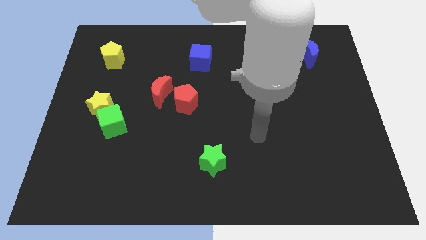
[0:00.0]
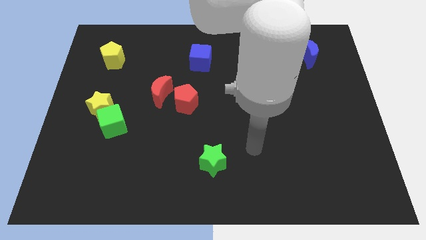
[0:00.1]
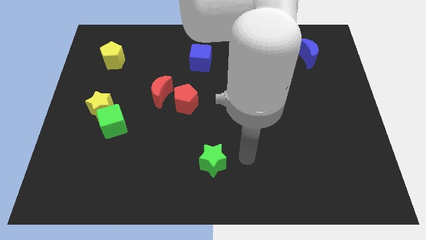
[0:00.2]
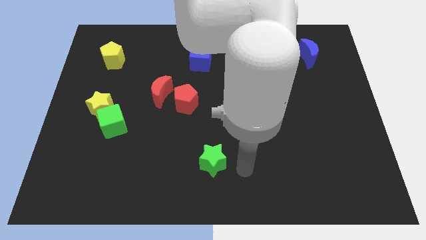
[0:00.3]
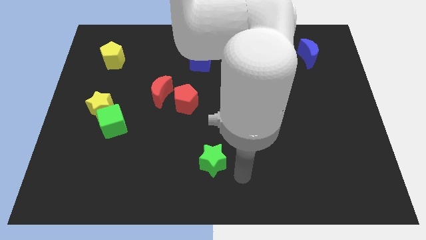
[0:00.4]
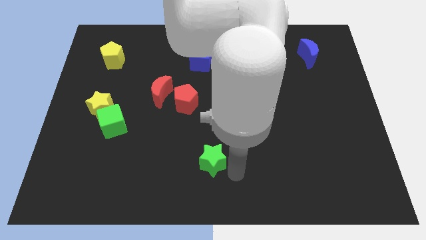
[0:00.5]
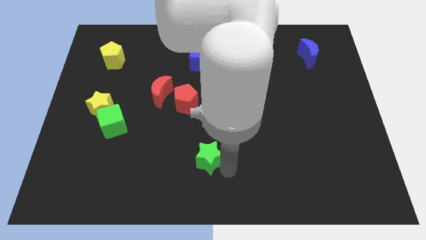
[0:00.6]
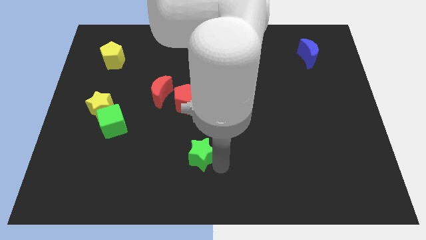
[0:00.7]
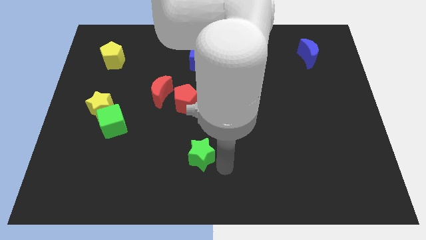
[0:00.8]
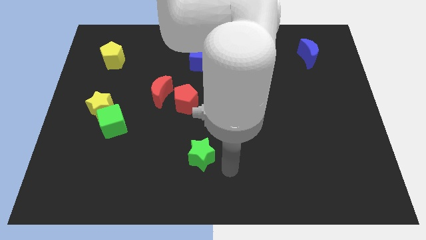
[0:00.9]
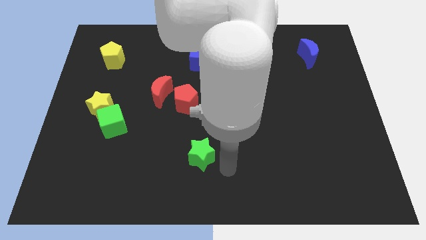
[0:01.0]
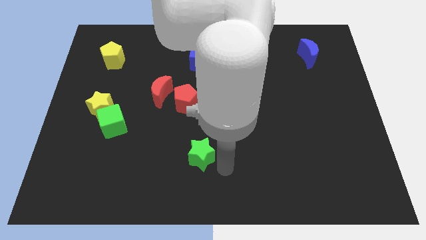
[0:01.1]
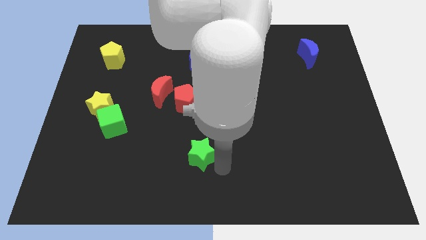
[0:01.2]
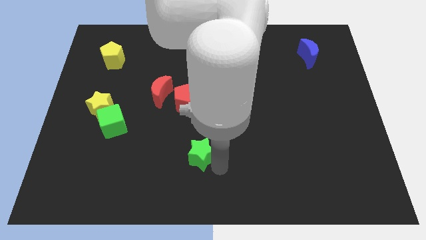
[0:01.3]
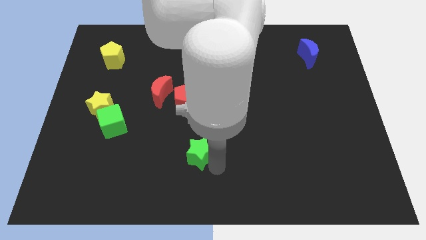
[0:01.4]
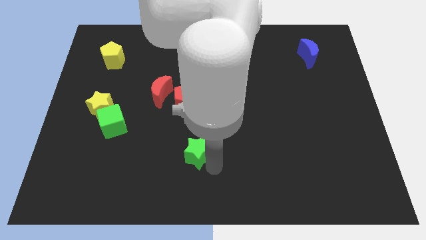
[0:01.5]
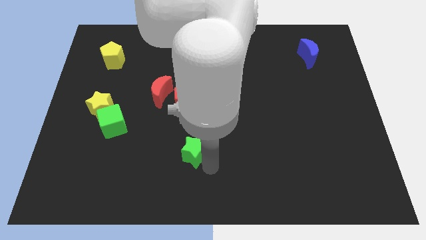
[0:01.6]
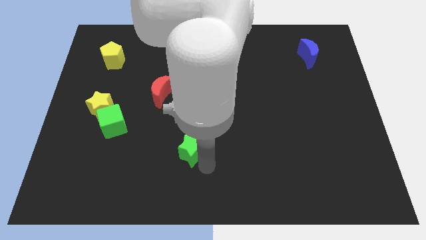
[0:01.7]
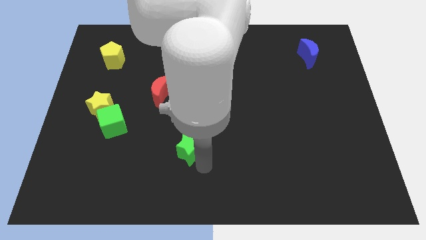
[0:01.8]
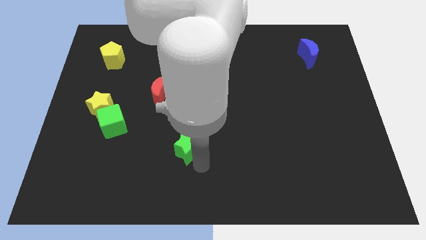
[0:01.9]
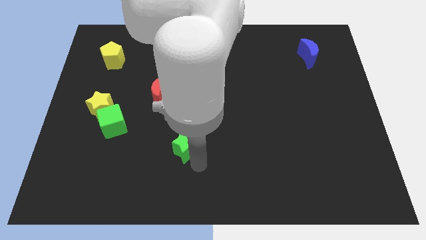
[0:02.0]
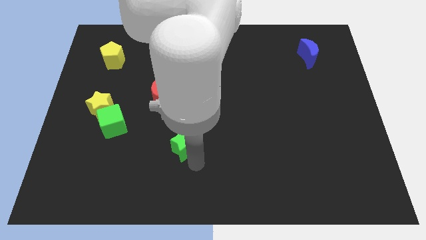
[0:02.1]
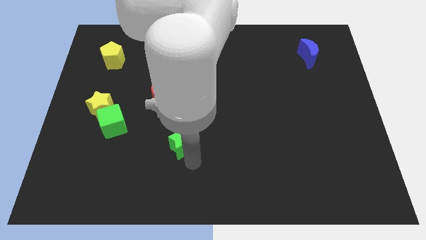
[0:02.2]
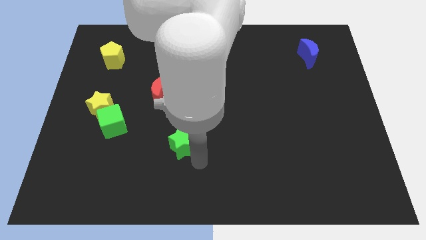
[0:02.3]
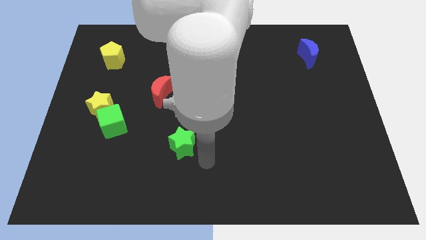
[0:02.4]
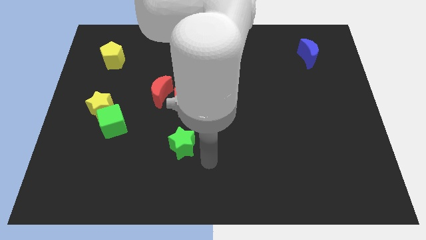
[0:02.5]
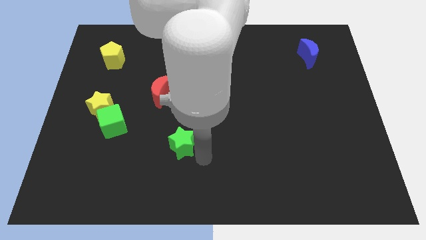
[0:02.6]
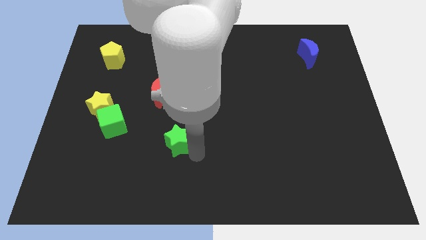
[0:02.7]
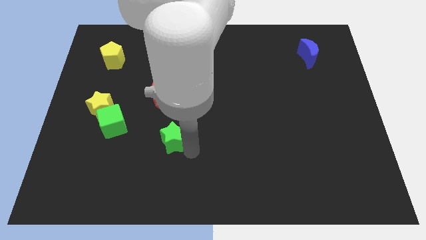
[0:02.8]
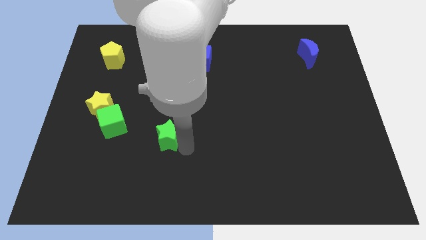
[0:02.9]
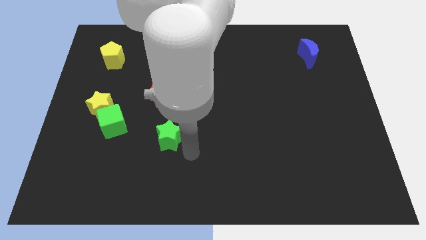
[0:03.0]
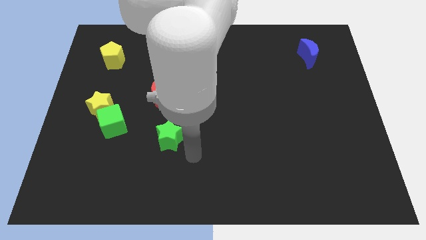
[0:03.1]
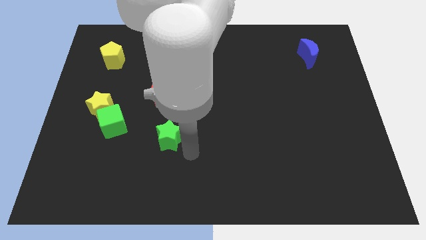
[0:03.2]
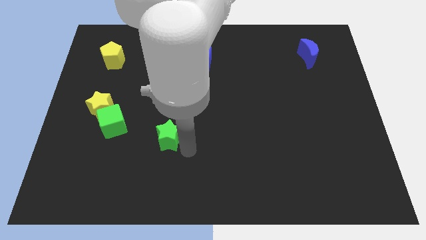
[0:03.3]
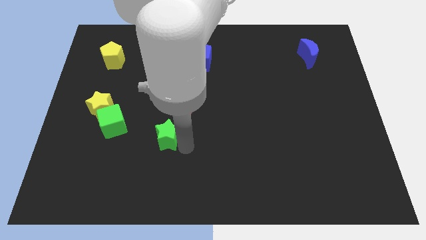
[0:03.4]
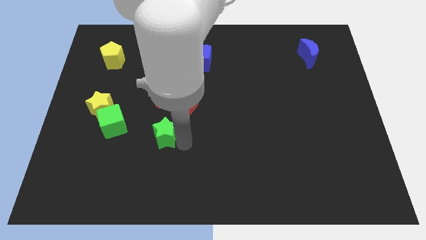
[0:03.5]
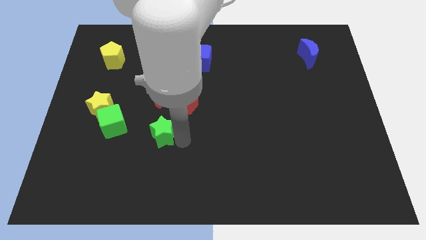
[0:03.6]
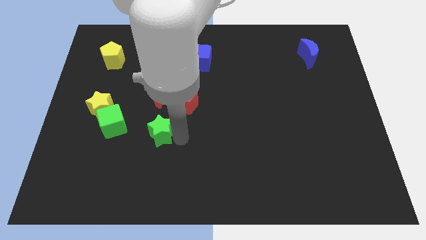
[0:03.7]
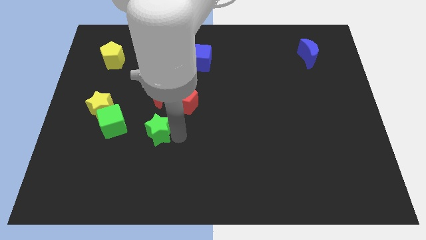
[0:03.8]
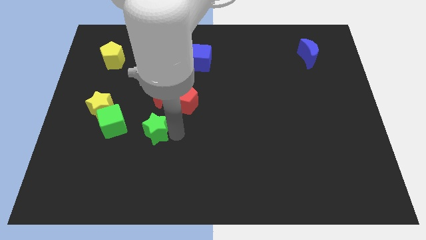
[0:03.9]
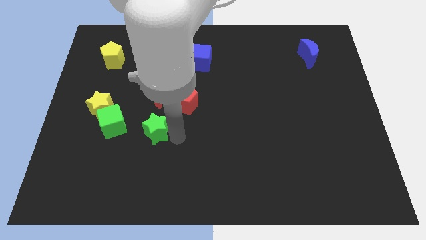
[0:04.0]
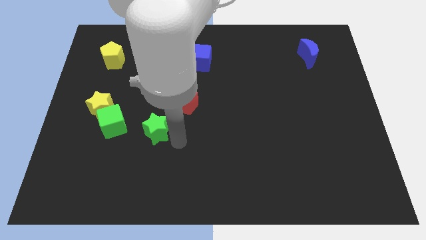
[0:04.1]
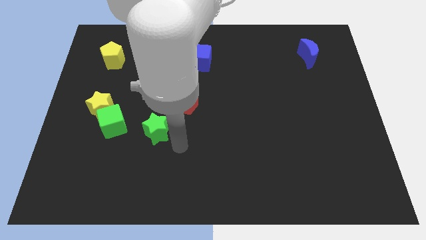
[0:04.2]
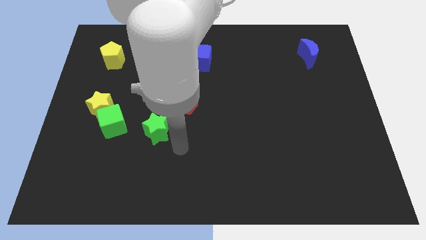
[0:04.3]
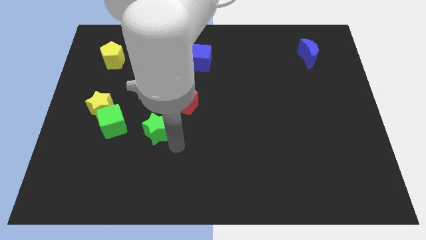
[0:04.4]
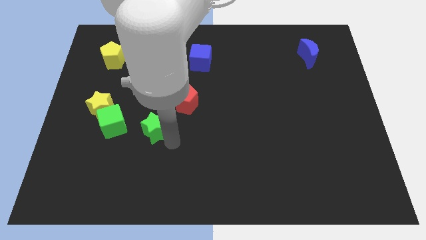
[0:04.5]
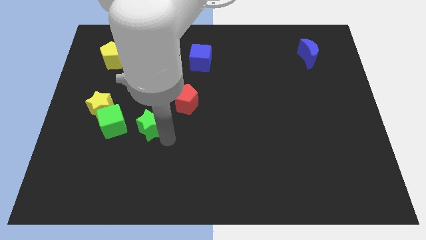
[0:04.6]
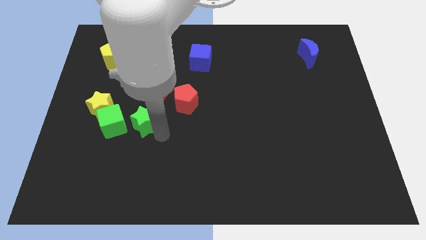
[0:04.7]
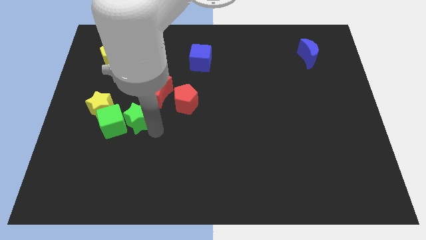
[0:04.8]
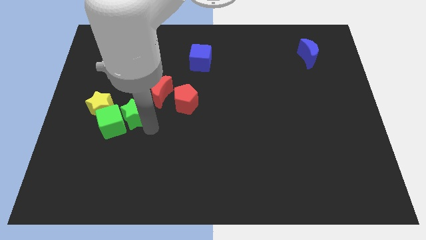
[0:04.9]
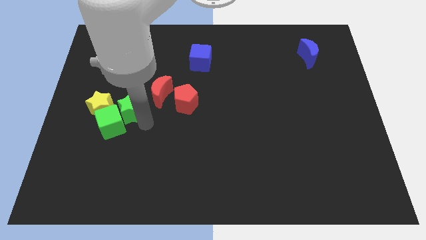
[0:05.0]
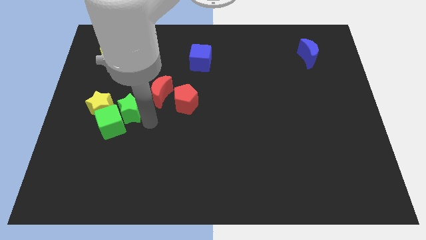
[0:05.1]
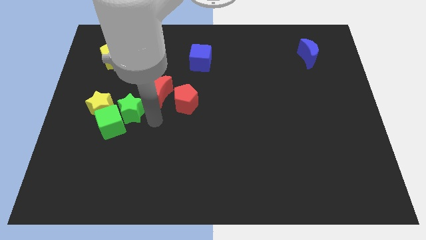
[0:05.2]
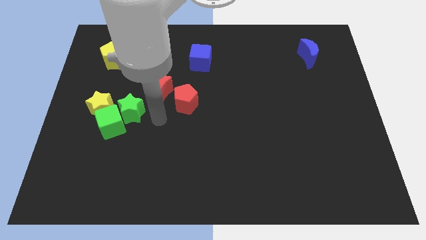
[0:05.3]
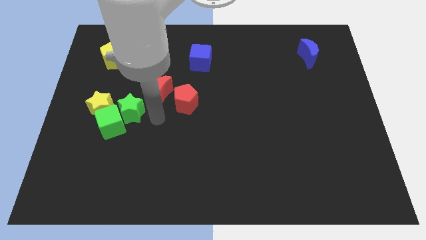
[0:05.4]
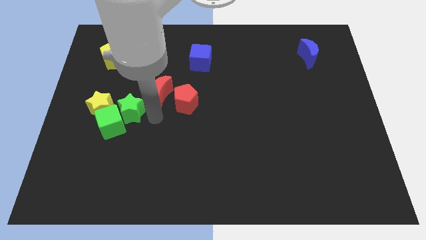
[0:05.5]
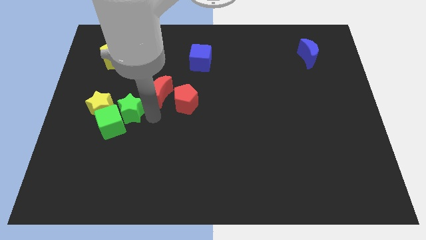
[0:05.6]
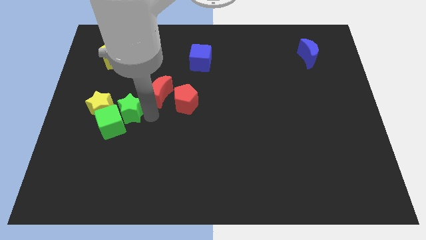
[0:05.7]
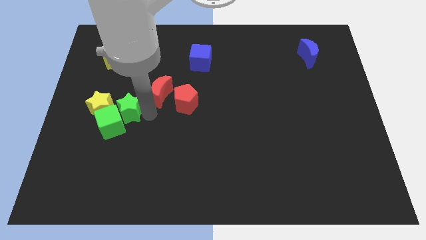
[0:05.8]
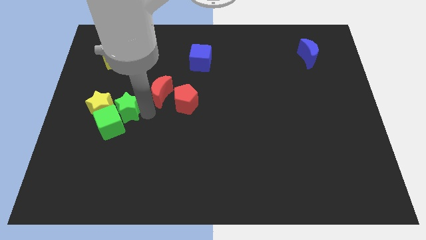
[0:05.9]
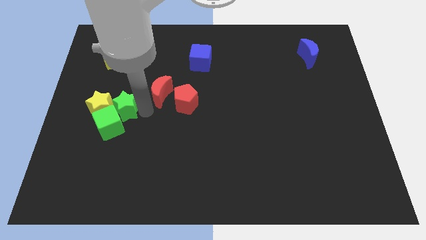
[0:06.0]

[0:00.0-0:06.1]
move the green star towards the yellow star
